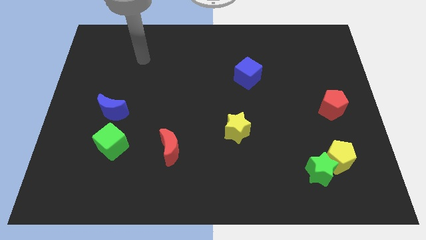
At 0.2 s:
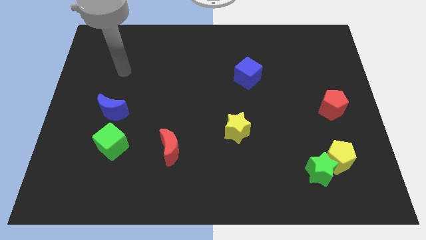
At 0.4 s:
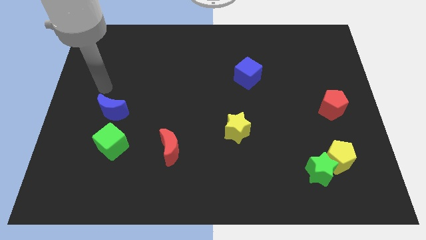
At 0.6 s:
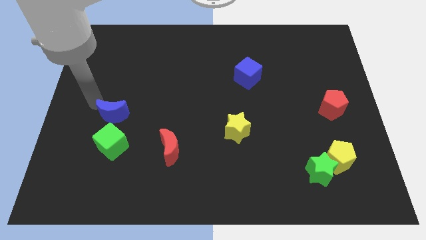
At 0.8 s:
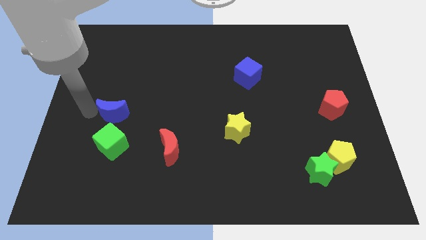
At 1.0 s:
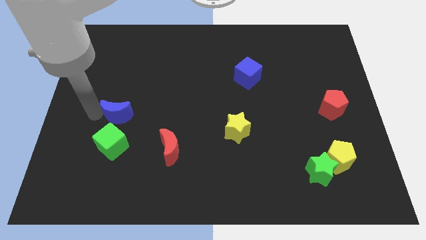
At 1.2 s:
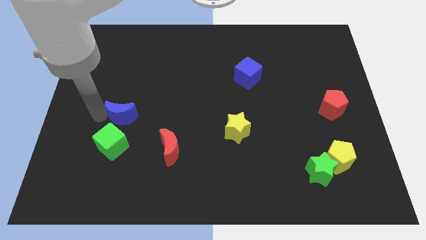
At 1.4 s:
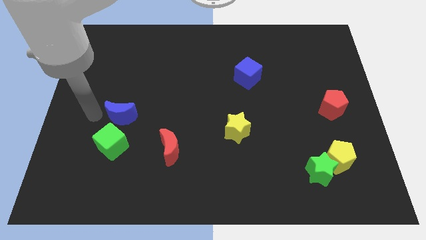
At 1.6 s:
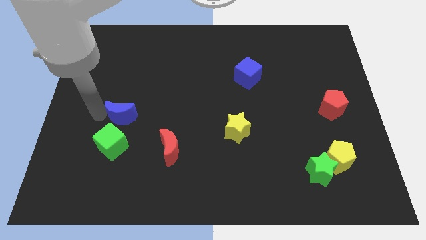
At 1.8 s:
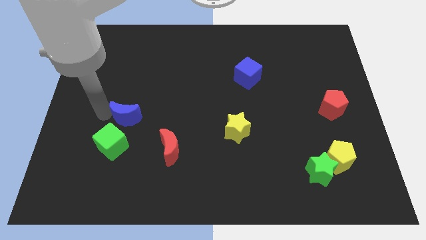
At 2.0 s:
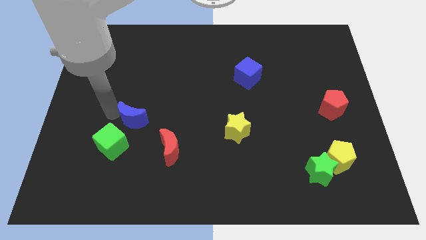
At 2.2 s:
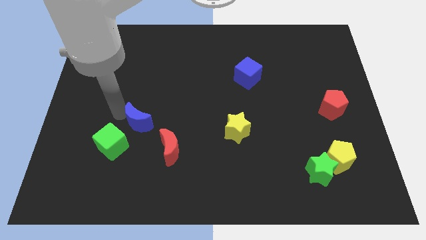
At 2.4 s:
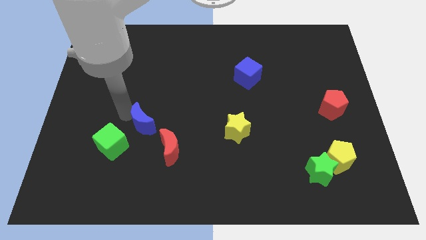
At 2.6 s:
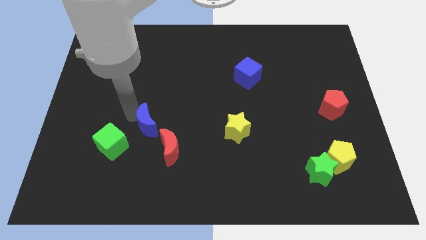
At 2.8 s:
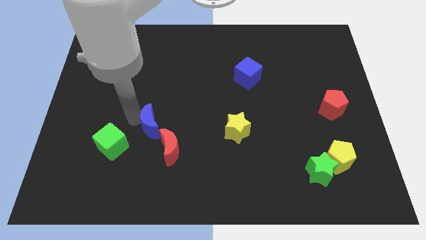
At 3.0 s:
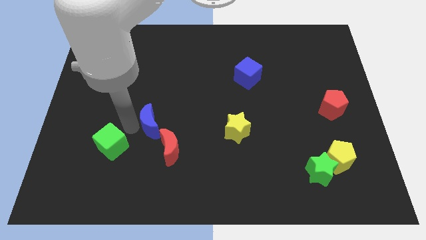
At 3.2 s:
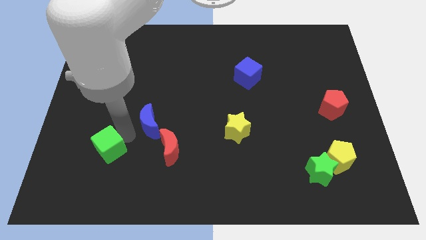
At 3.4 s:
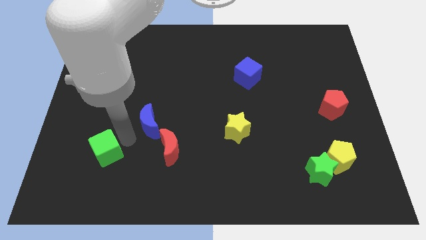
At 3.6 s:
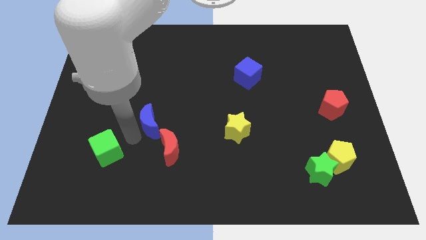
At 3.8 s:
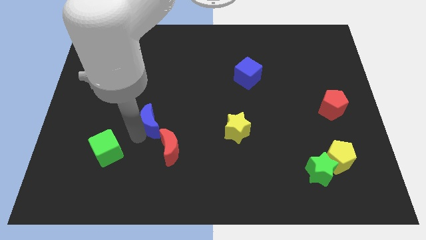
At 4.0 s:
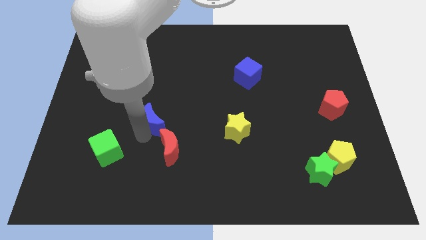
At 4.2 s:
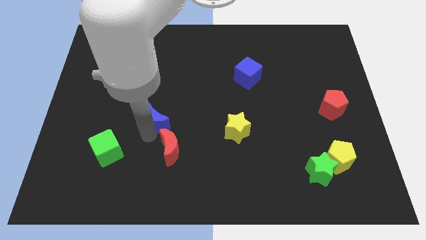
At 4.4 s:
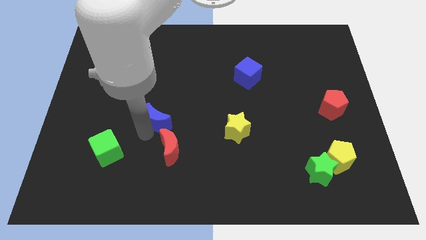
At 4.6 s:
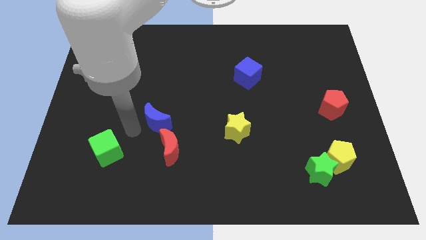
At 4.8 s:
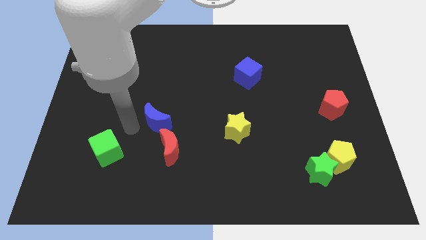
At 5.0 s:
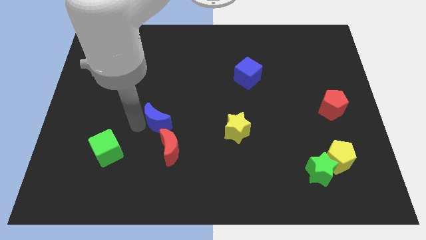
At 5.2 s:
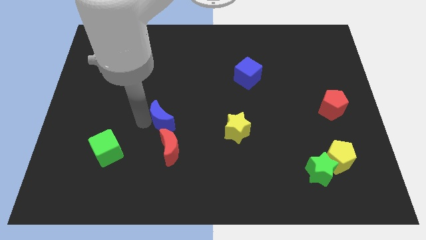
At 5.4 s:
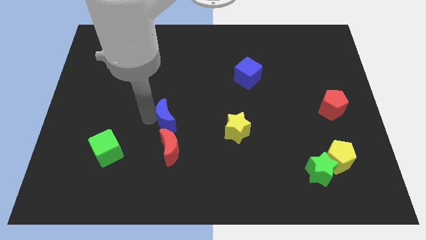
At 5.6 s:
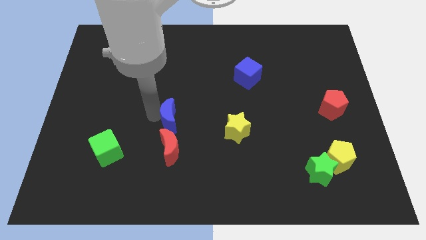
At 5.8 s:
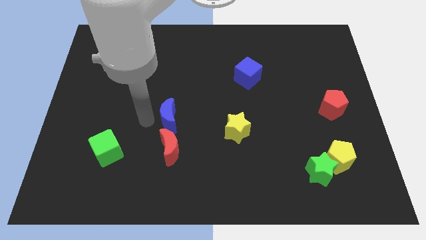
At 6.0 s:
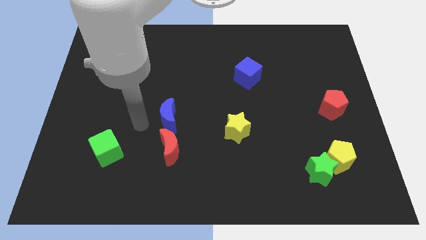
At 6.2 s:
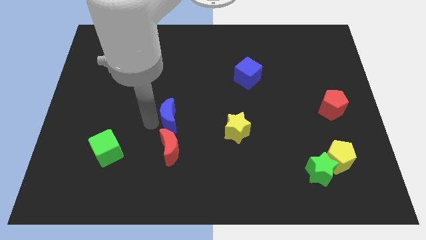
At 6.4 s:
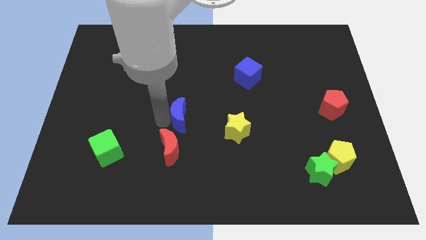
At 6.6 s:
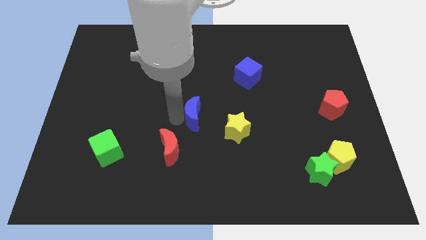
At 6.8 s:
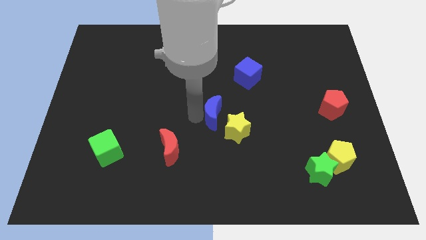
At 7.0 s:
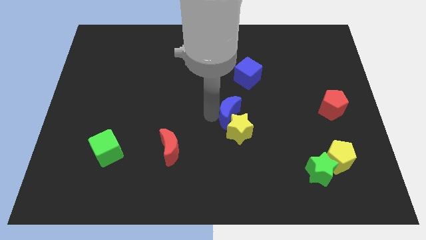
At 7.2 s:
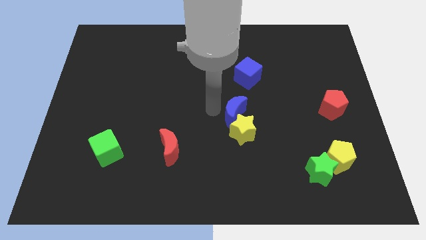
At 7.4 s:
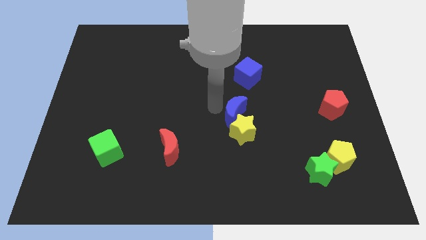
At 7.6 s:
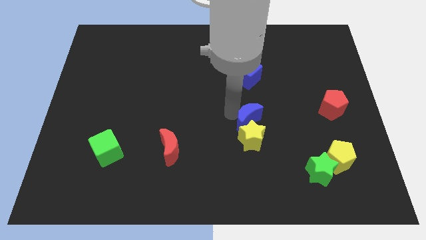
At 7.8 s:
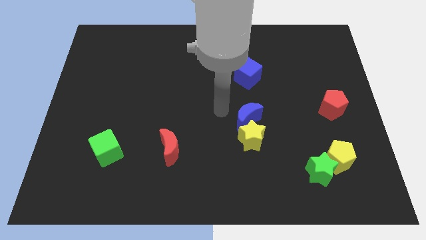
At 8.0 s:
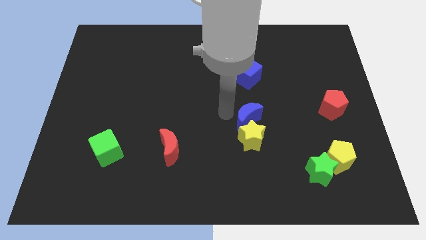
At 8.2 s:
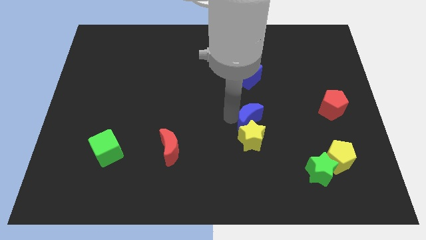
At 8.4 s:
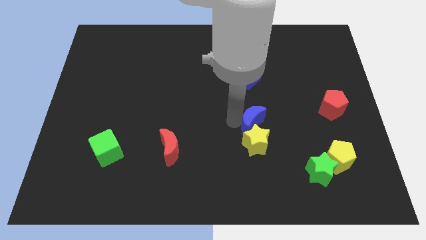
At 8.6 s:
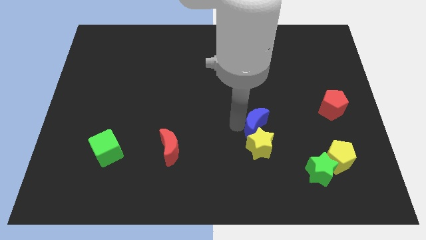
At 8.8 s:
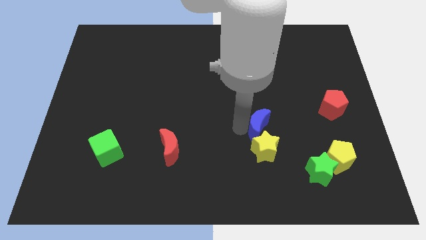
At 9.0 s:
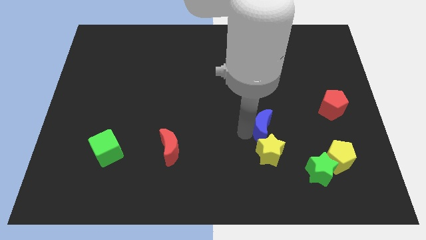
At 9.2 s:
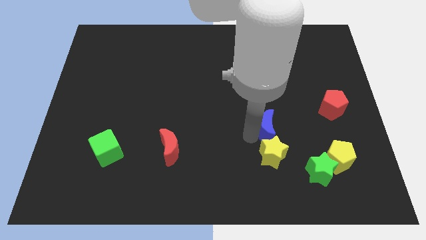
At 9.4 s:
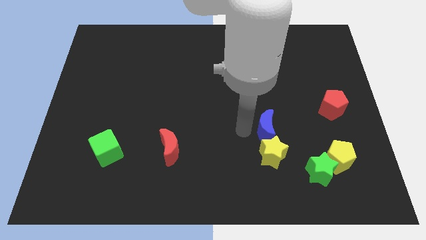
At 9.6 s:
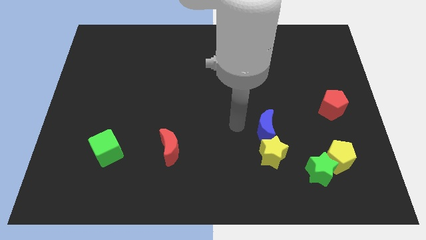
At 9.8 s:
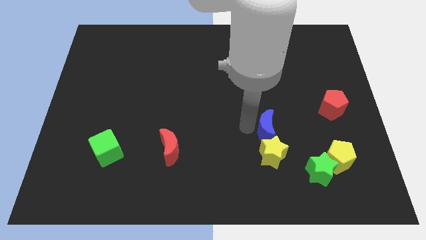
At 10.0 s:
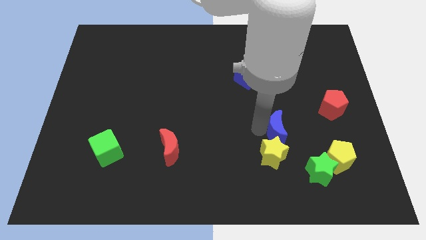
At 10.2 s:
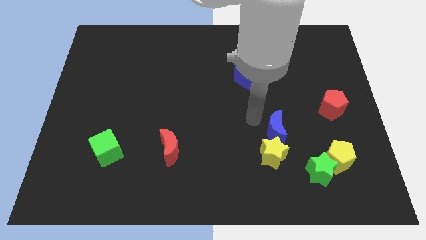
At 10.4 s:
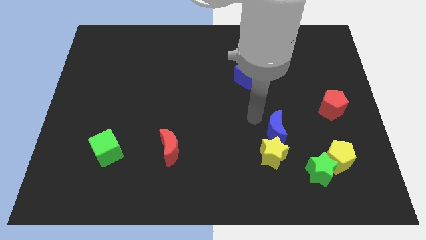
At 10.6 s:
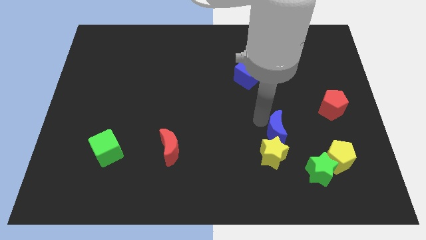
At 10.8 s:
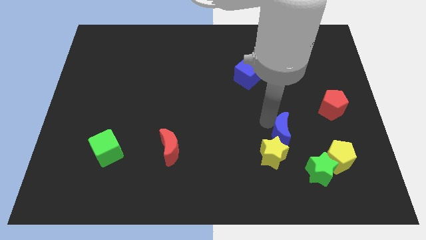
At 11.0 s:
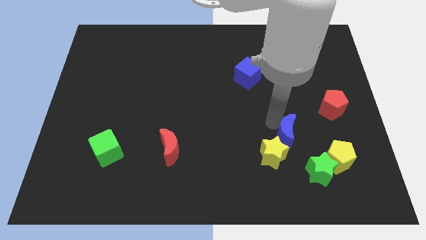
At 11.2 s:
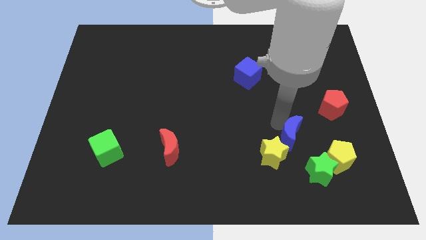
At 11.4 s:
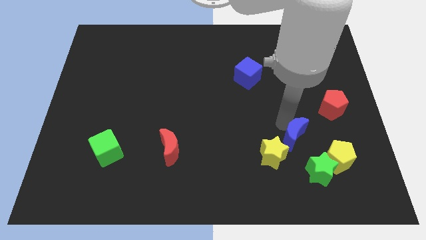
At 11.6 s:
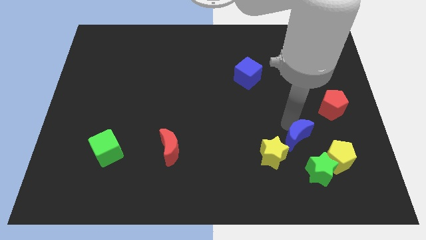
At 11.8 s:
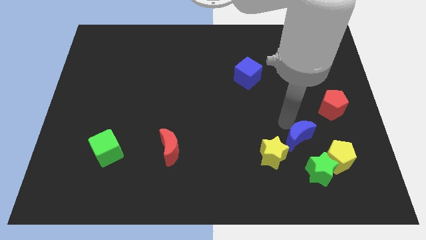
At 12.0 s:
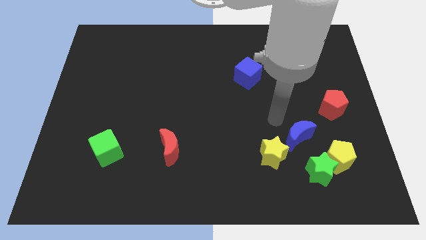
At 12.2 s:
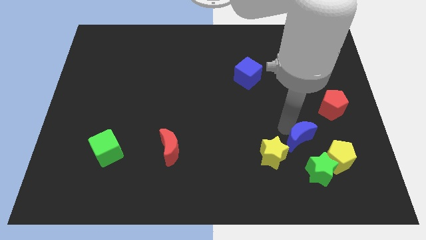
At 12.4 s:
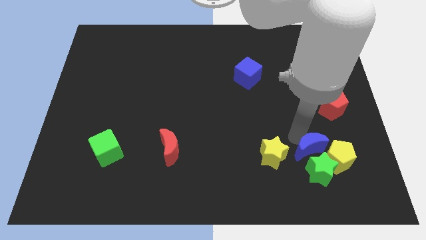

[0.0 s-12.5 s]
put the blue moon next to the yellow pentagon

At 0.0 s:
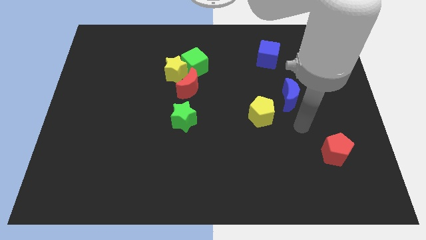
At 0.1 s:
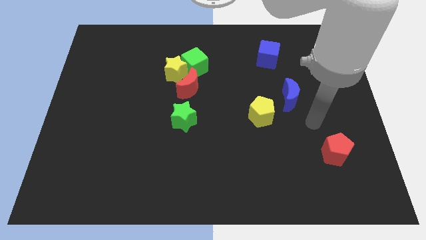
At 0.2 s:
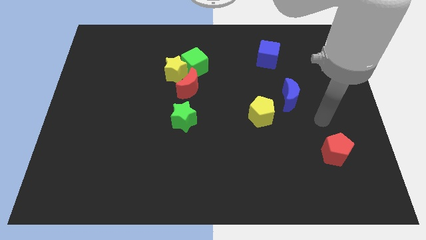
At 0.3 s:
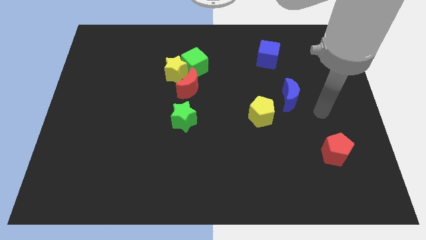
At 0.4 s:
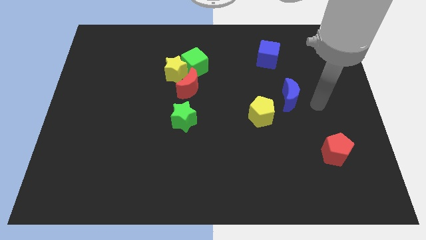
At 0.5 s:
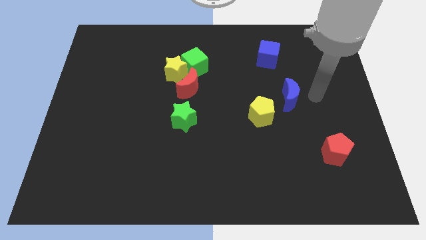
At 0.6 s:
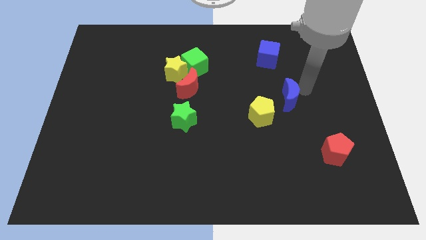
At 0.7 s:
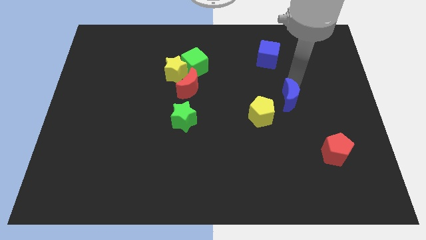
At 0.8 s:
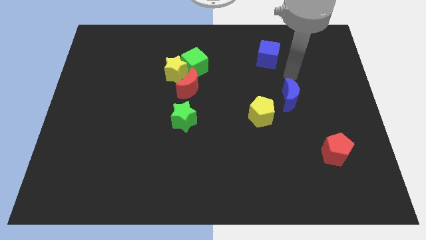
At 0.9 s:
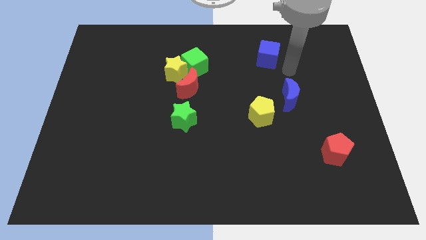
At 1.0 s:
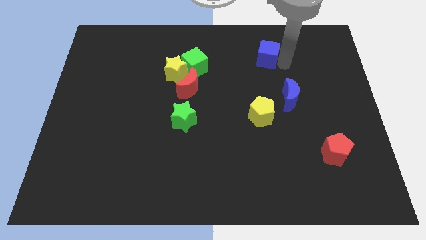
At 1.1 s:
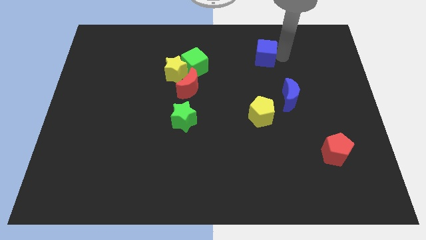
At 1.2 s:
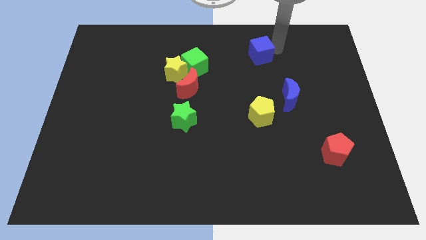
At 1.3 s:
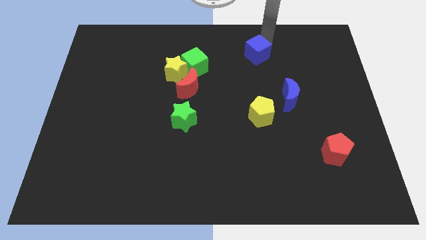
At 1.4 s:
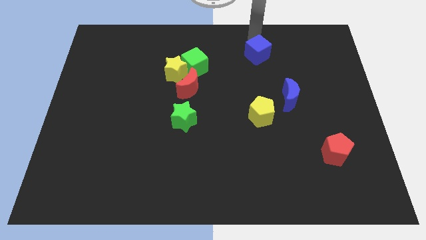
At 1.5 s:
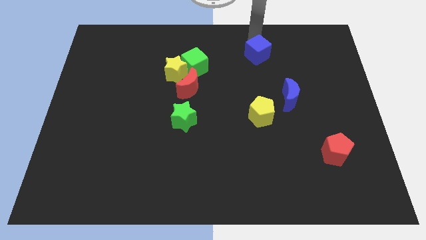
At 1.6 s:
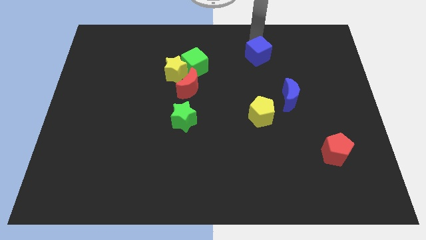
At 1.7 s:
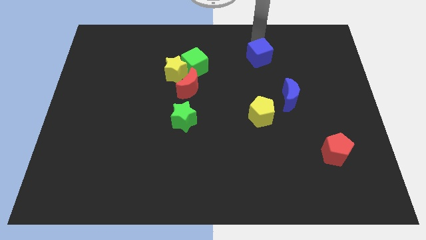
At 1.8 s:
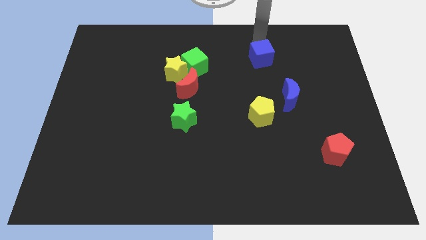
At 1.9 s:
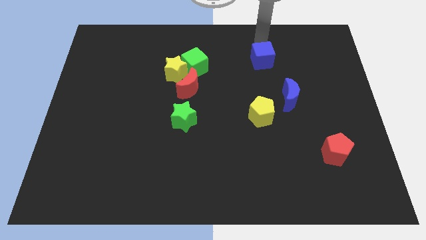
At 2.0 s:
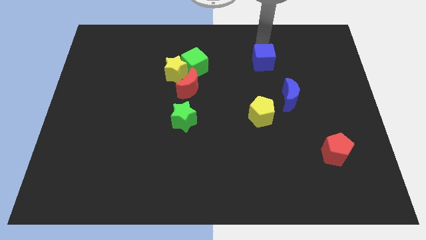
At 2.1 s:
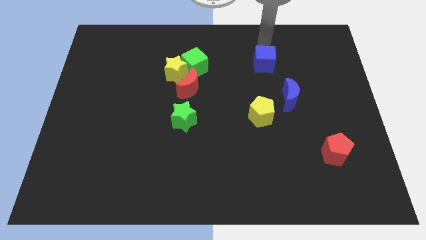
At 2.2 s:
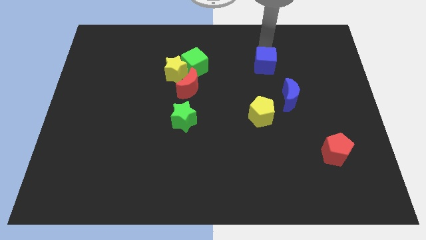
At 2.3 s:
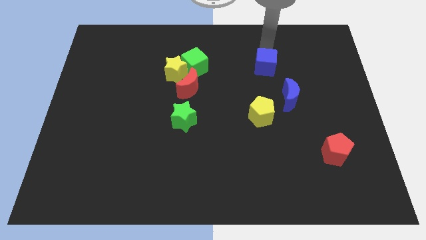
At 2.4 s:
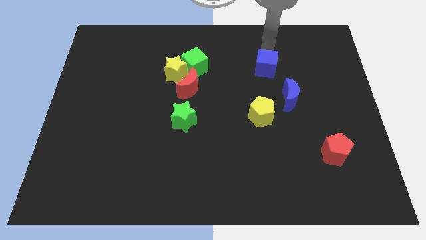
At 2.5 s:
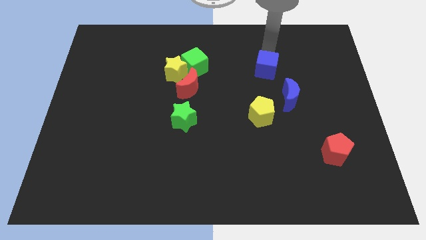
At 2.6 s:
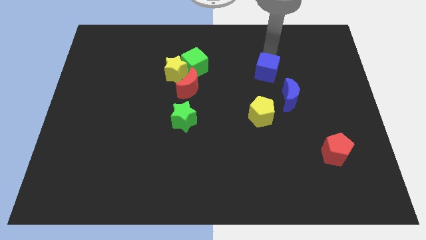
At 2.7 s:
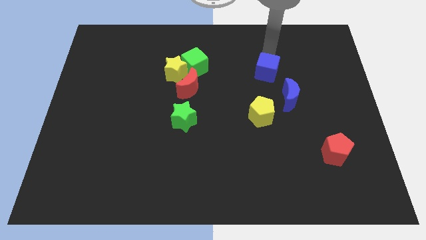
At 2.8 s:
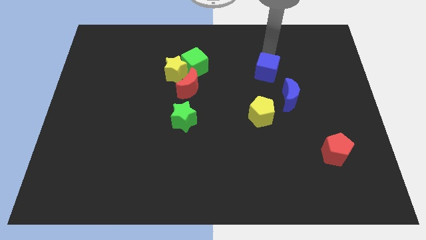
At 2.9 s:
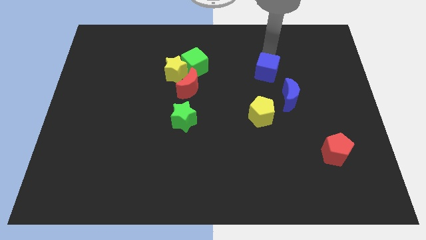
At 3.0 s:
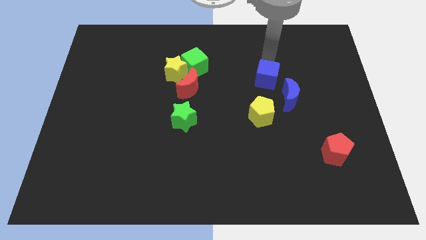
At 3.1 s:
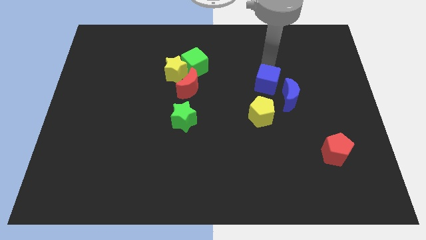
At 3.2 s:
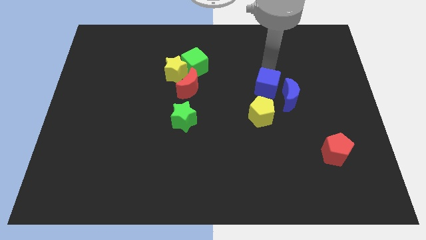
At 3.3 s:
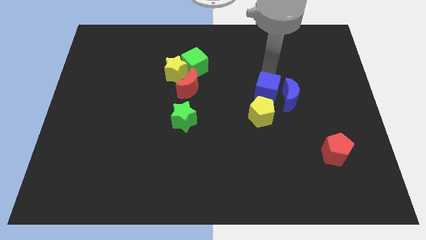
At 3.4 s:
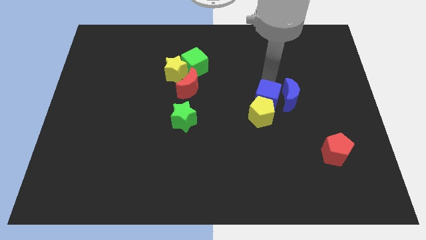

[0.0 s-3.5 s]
push the blue cube close to the yellow pentagon
